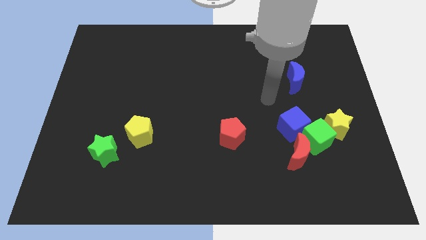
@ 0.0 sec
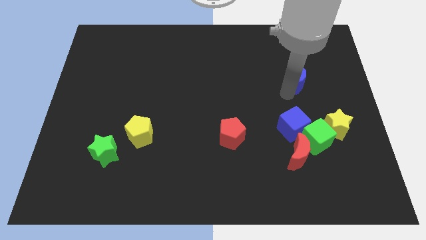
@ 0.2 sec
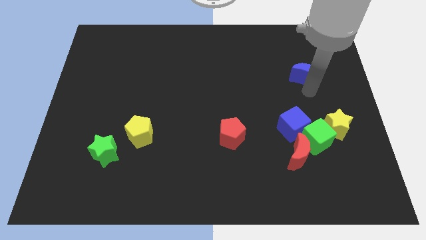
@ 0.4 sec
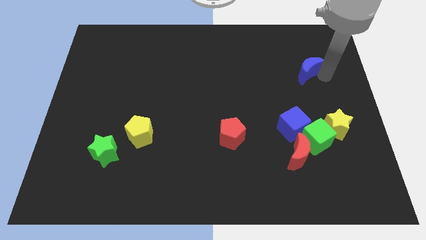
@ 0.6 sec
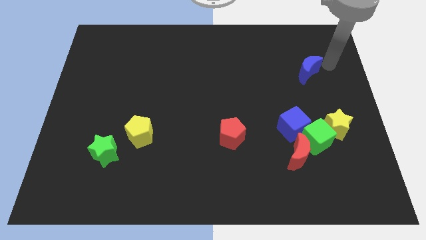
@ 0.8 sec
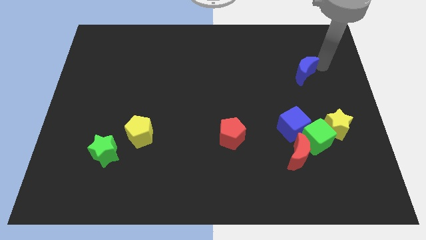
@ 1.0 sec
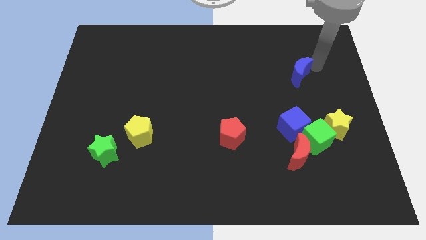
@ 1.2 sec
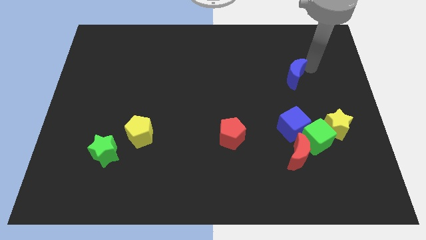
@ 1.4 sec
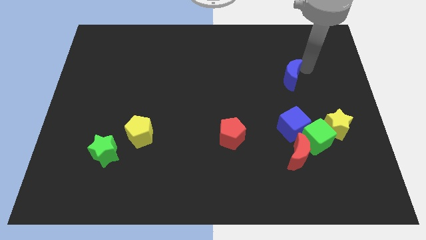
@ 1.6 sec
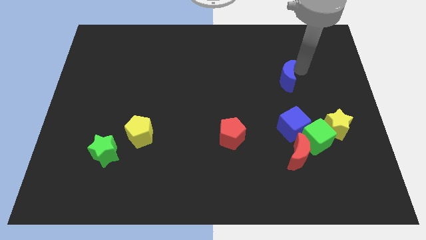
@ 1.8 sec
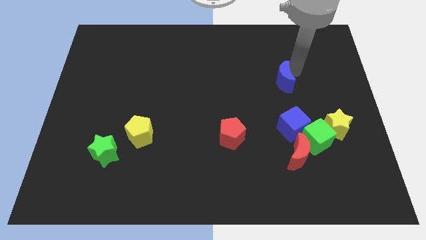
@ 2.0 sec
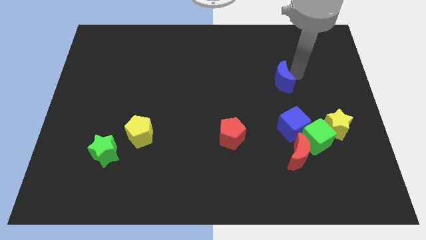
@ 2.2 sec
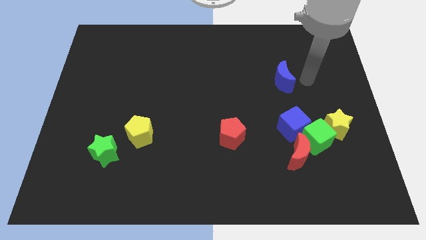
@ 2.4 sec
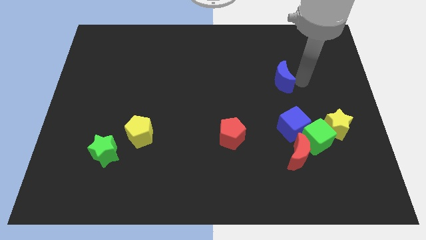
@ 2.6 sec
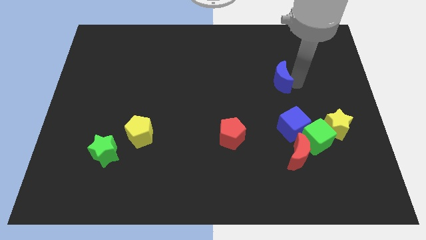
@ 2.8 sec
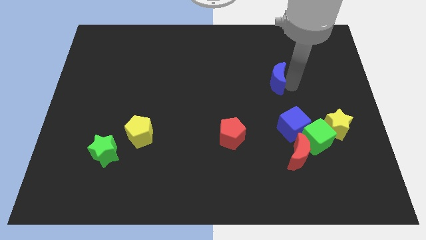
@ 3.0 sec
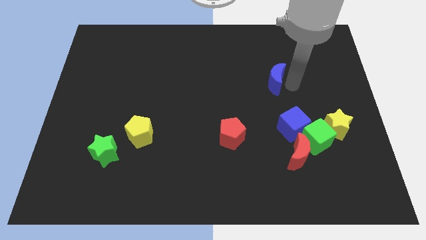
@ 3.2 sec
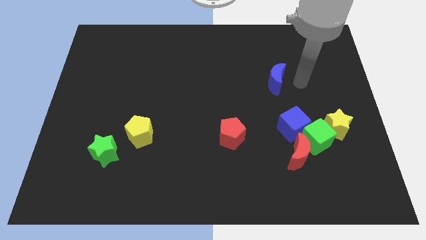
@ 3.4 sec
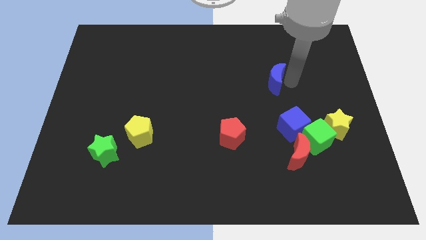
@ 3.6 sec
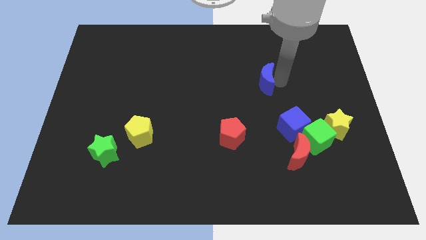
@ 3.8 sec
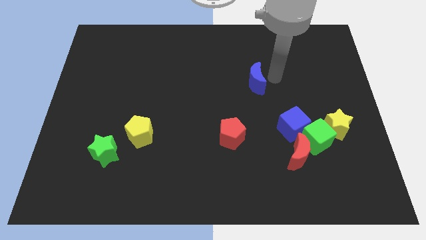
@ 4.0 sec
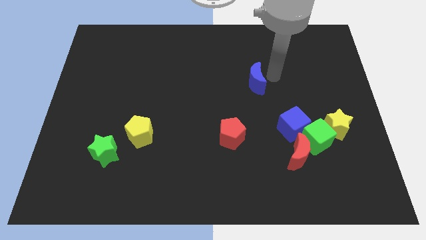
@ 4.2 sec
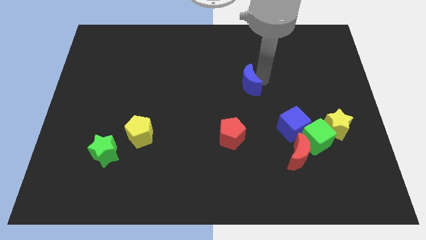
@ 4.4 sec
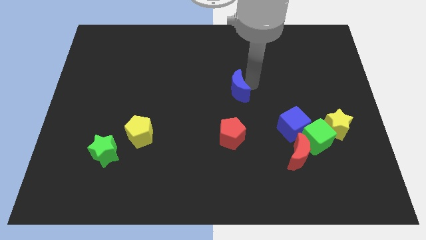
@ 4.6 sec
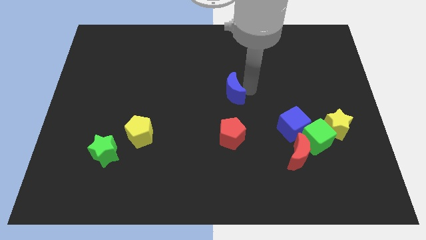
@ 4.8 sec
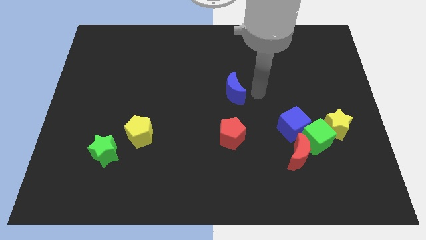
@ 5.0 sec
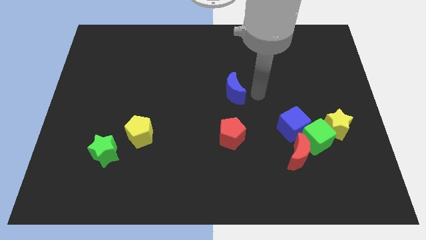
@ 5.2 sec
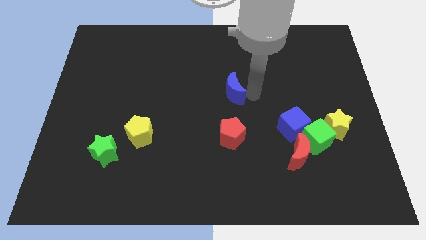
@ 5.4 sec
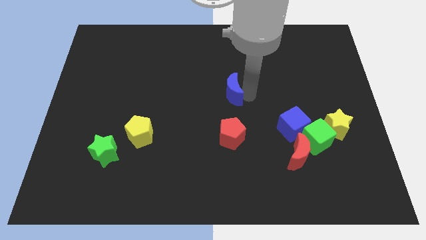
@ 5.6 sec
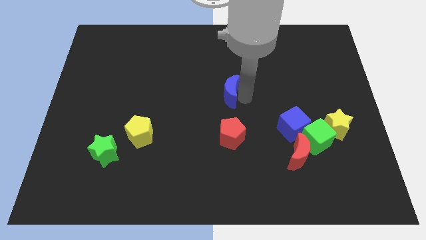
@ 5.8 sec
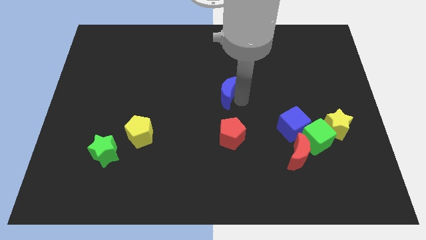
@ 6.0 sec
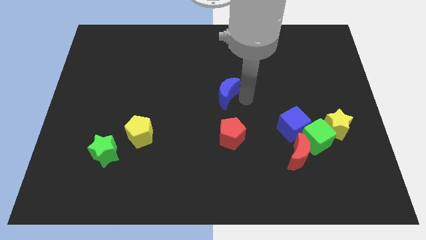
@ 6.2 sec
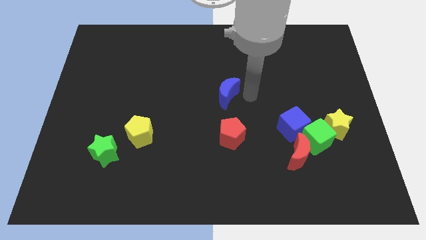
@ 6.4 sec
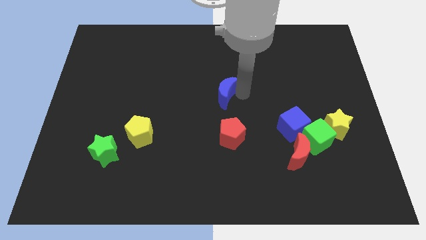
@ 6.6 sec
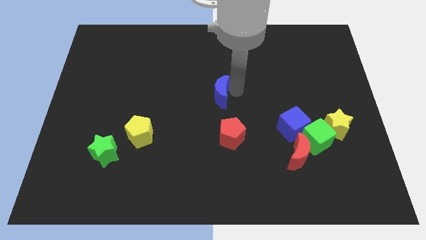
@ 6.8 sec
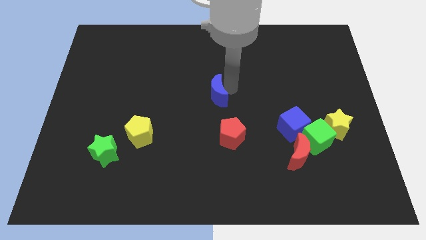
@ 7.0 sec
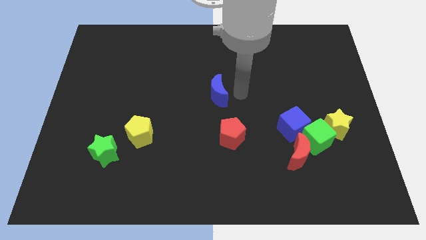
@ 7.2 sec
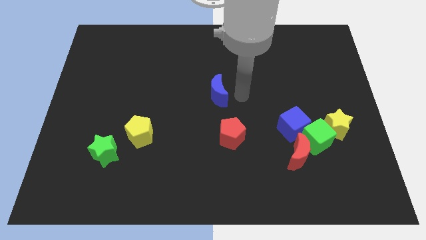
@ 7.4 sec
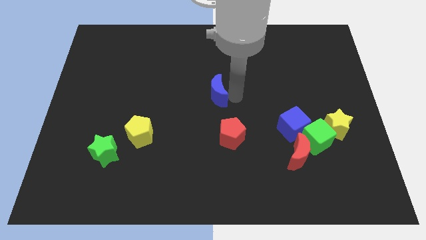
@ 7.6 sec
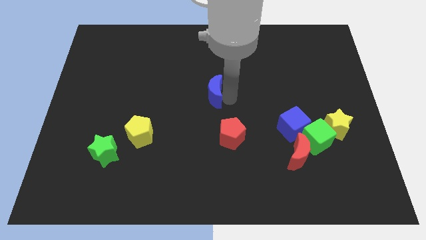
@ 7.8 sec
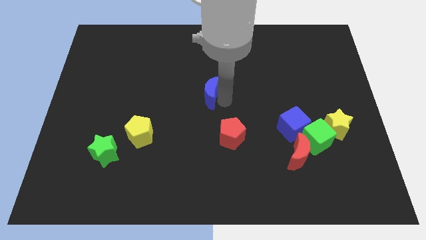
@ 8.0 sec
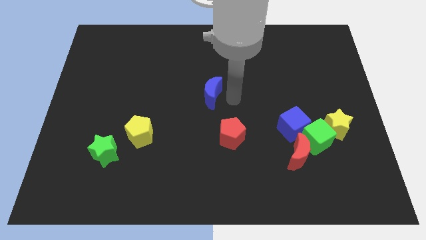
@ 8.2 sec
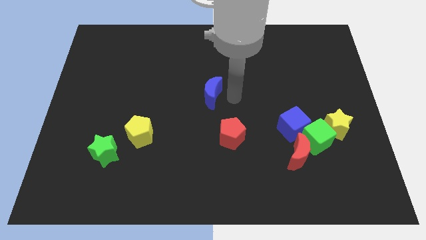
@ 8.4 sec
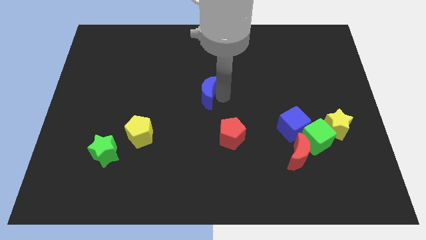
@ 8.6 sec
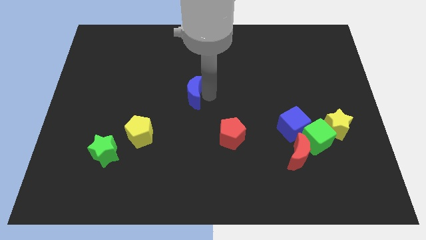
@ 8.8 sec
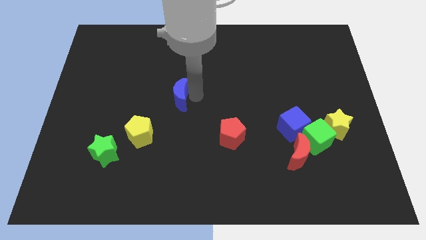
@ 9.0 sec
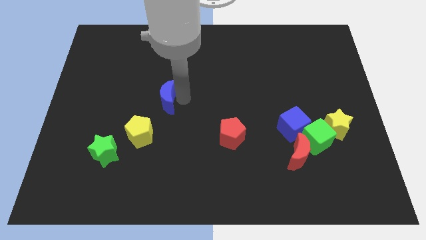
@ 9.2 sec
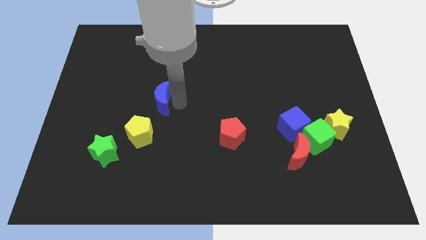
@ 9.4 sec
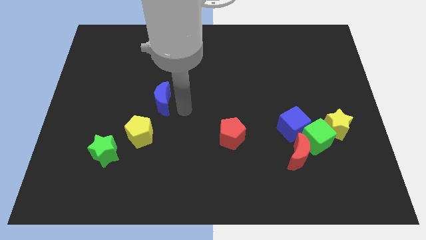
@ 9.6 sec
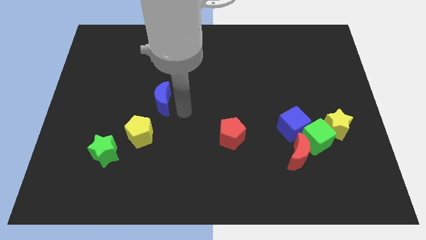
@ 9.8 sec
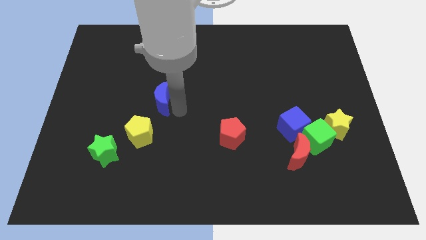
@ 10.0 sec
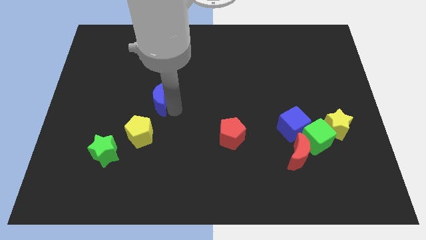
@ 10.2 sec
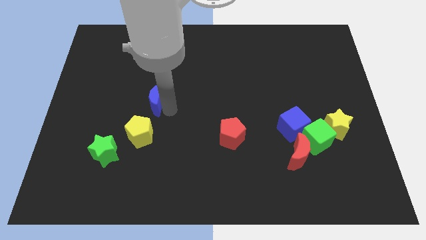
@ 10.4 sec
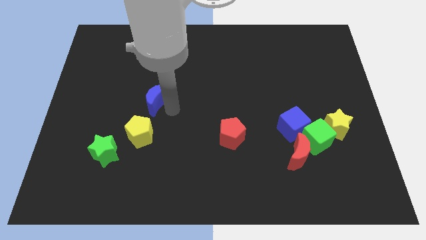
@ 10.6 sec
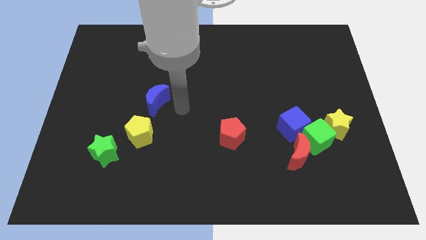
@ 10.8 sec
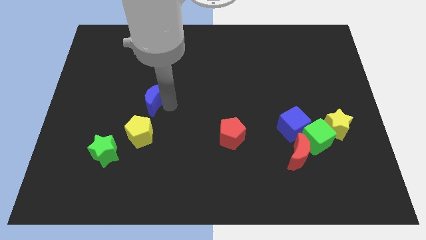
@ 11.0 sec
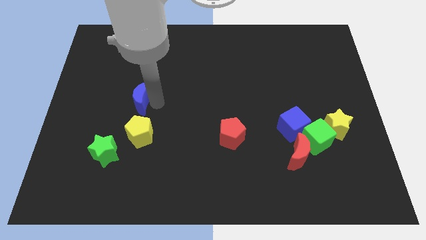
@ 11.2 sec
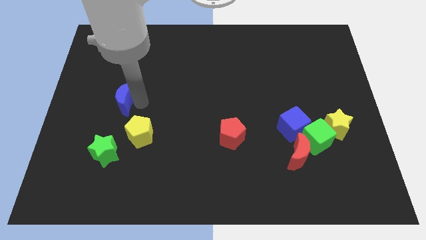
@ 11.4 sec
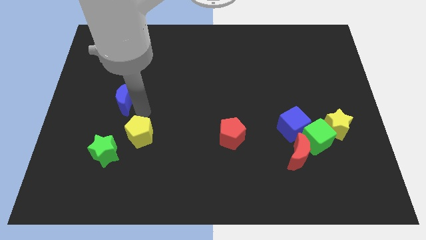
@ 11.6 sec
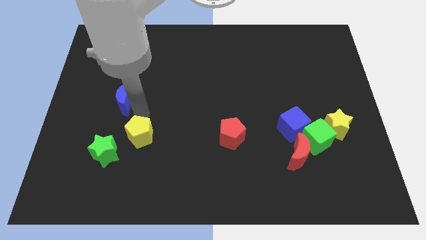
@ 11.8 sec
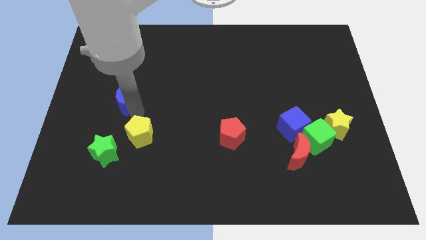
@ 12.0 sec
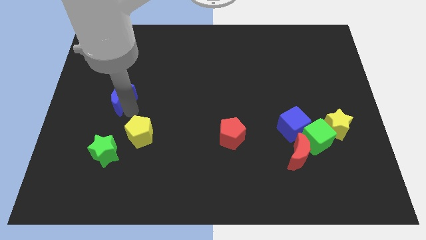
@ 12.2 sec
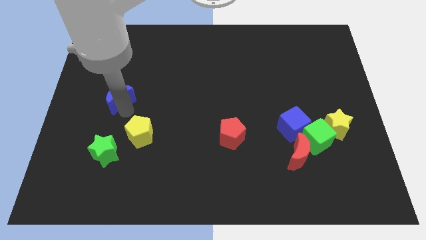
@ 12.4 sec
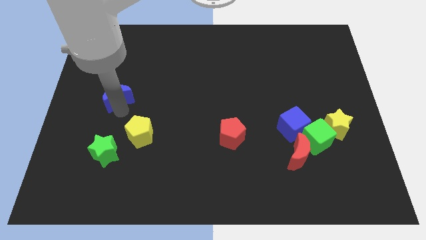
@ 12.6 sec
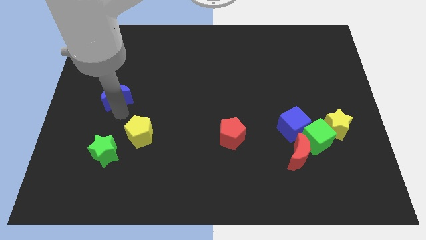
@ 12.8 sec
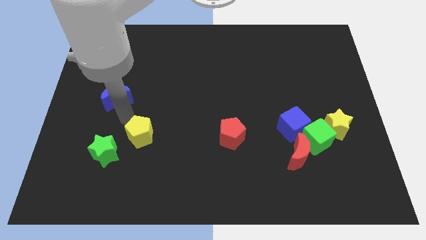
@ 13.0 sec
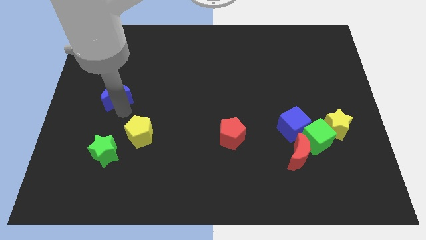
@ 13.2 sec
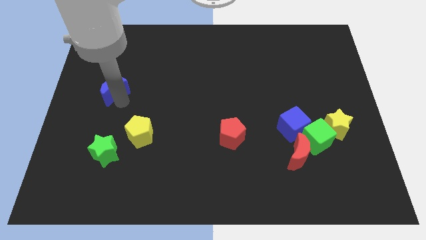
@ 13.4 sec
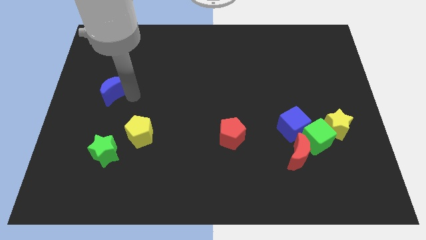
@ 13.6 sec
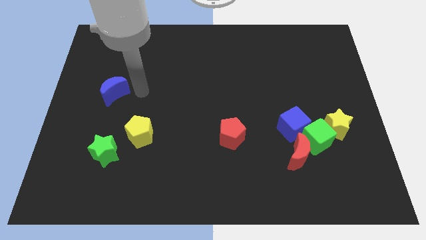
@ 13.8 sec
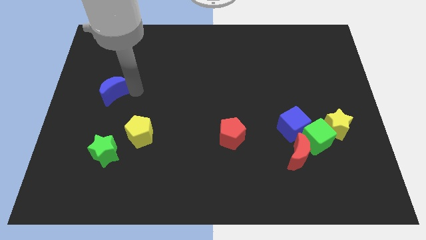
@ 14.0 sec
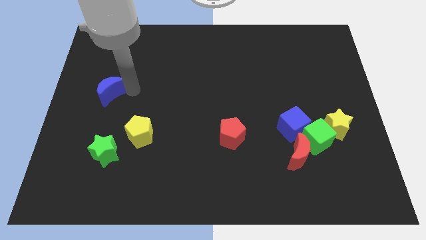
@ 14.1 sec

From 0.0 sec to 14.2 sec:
move the blue moon to the center left
